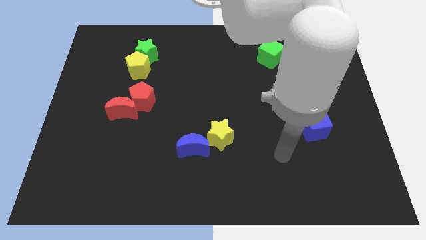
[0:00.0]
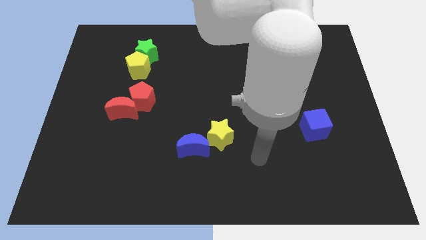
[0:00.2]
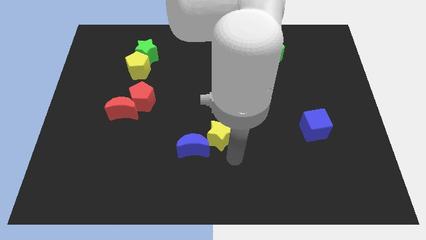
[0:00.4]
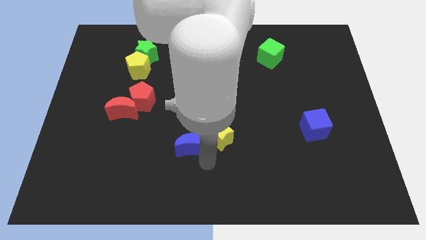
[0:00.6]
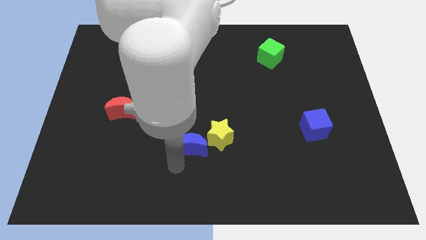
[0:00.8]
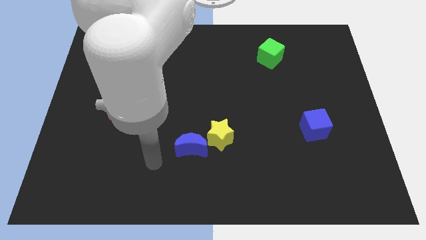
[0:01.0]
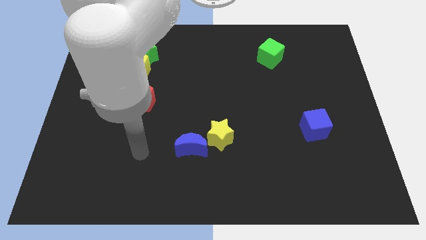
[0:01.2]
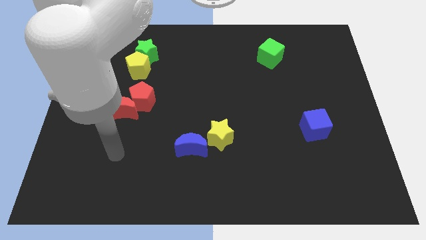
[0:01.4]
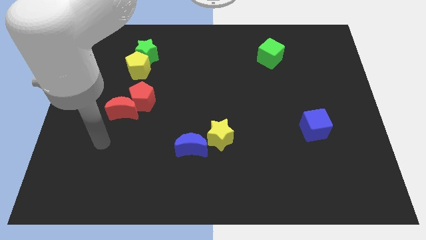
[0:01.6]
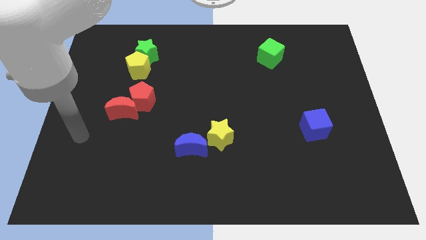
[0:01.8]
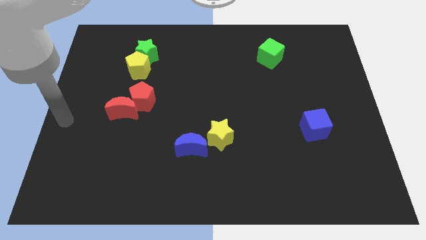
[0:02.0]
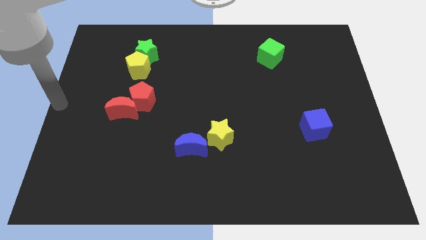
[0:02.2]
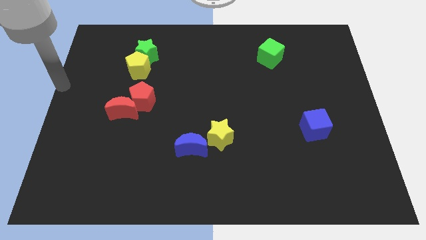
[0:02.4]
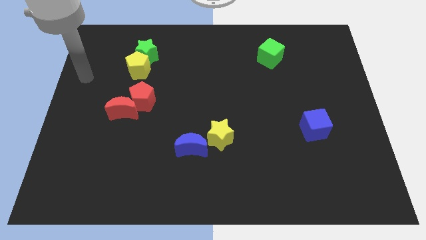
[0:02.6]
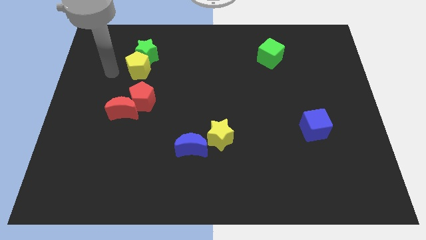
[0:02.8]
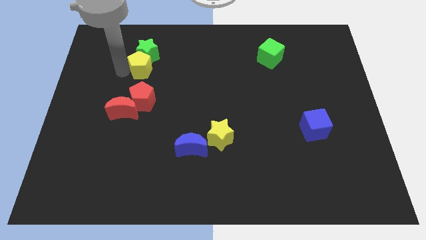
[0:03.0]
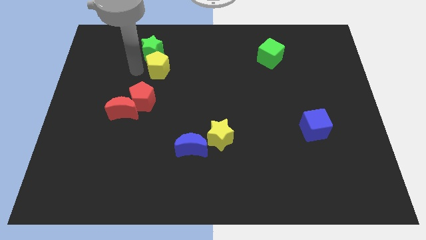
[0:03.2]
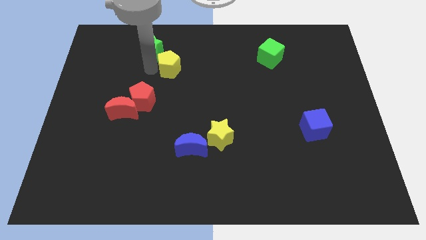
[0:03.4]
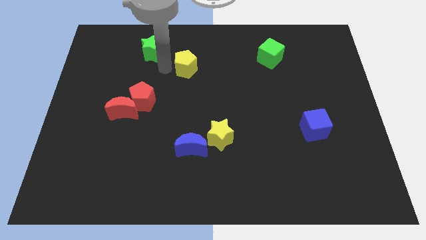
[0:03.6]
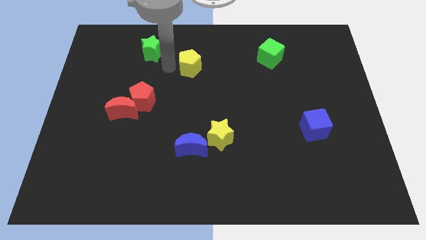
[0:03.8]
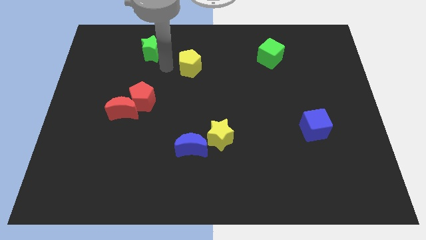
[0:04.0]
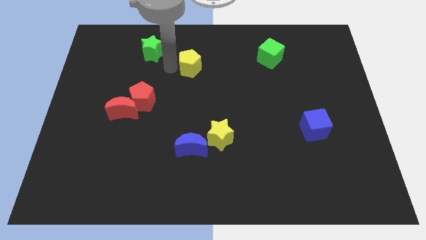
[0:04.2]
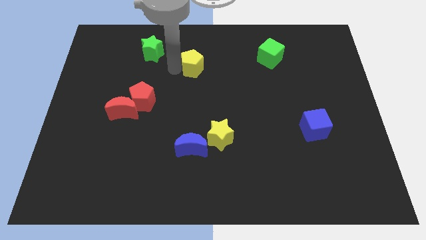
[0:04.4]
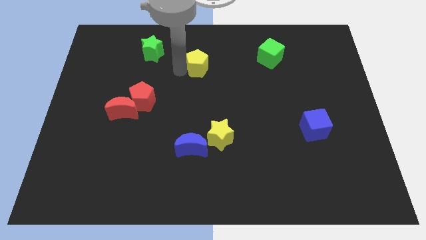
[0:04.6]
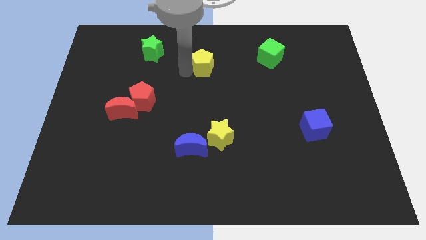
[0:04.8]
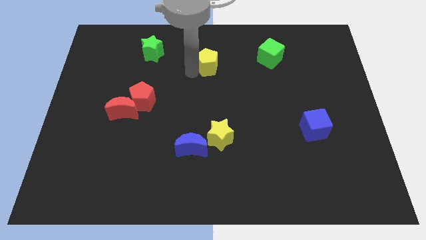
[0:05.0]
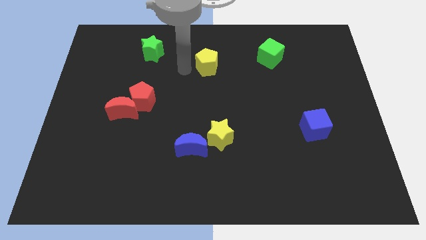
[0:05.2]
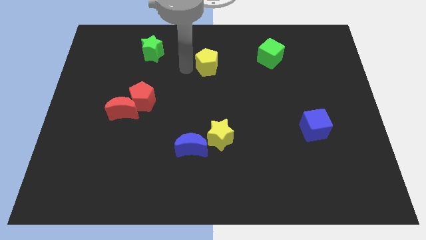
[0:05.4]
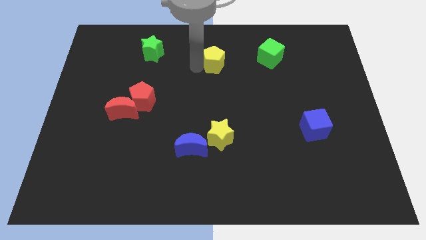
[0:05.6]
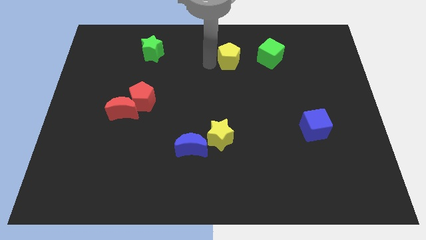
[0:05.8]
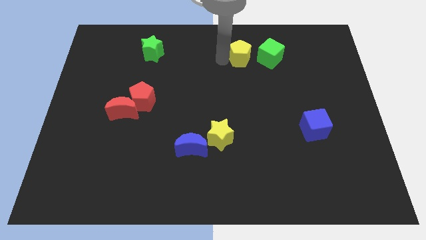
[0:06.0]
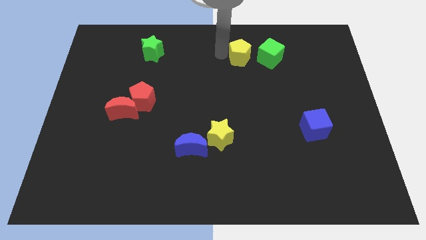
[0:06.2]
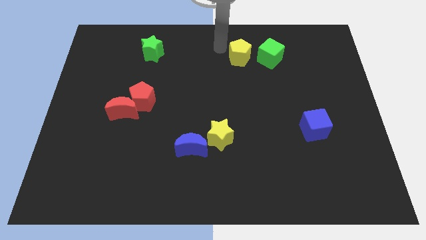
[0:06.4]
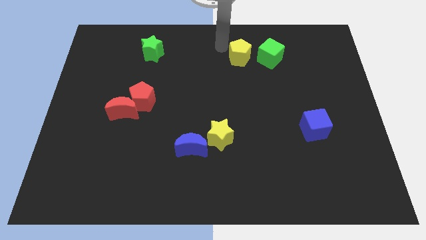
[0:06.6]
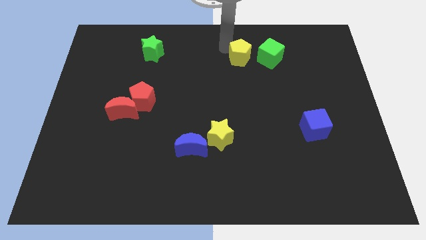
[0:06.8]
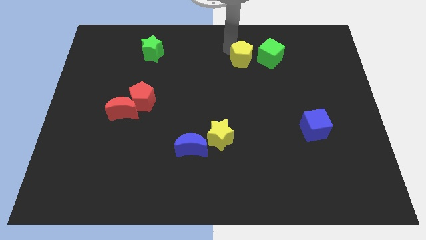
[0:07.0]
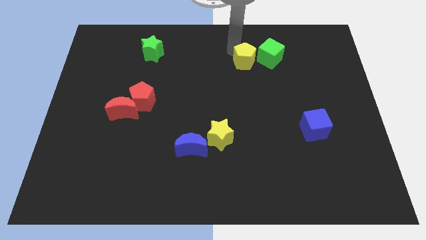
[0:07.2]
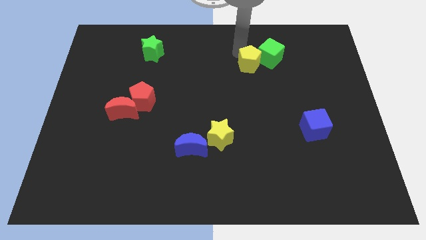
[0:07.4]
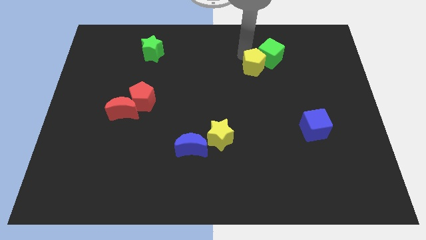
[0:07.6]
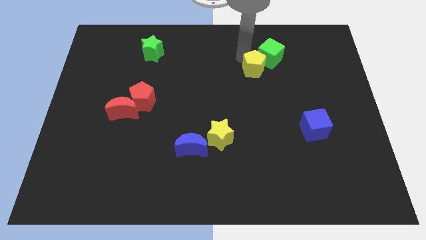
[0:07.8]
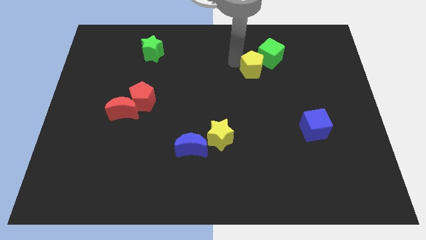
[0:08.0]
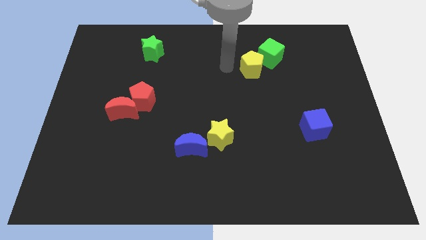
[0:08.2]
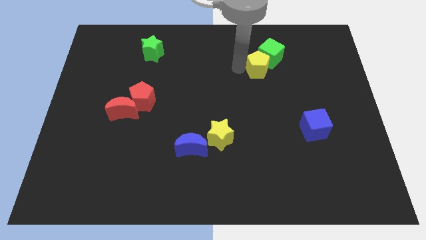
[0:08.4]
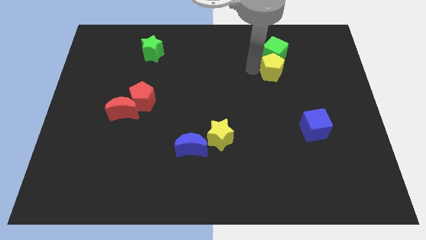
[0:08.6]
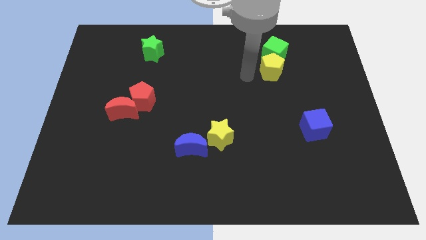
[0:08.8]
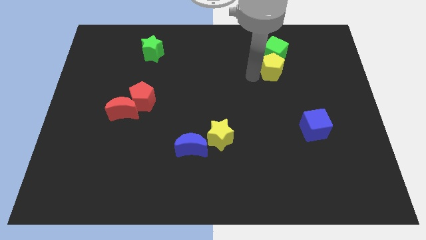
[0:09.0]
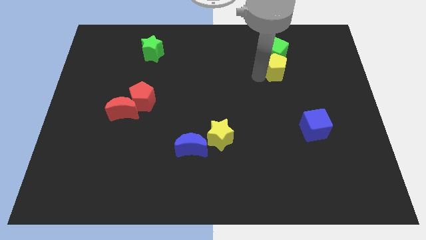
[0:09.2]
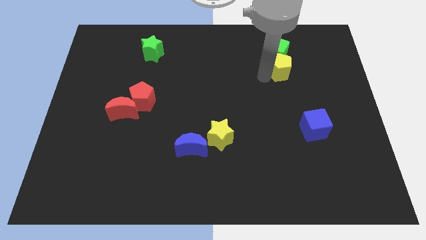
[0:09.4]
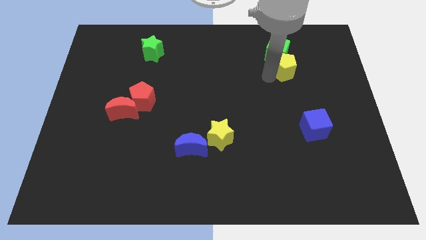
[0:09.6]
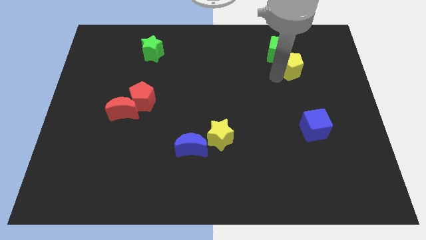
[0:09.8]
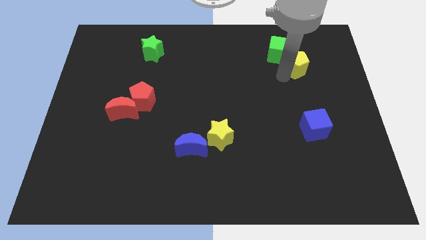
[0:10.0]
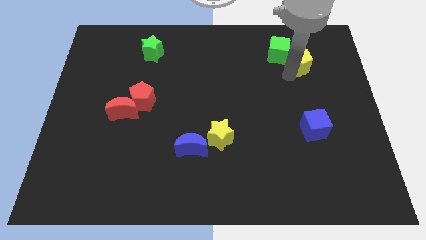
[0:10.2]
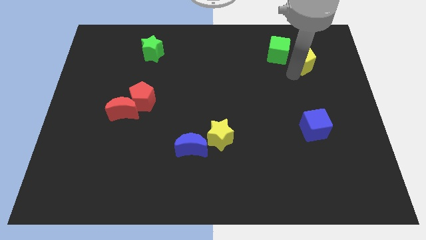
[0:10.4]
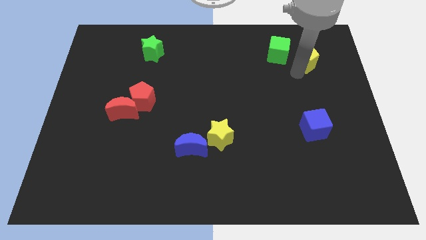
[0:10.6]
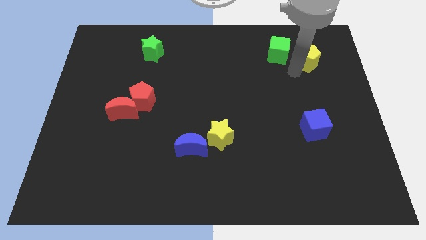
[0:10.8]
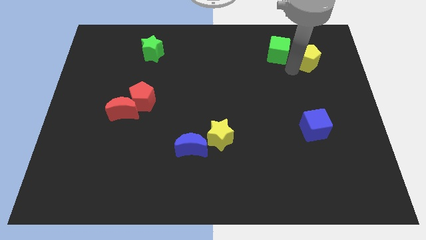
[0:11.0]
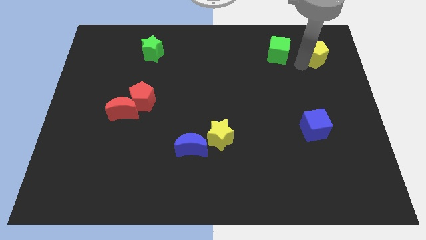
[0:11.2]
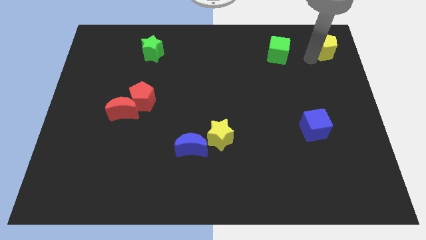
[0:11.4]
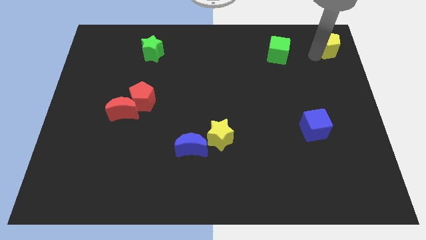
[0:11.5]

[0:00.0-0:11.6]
move the yellow pentagon to the top right

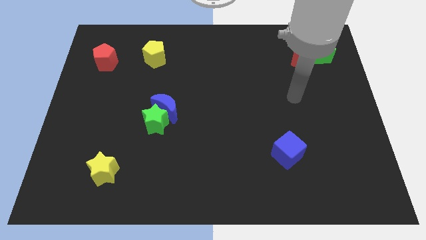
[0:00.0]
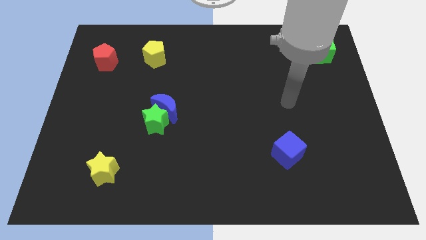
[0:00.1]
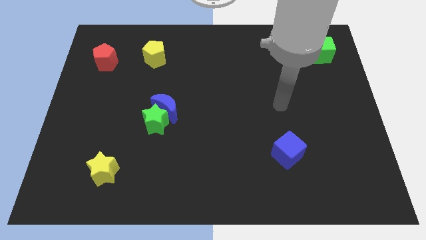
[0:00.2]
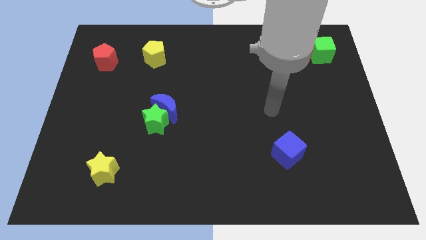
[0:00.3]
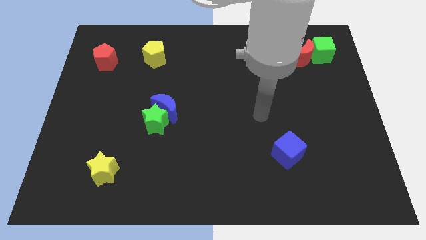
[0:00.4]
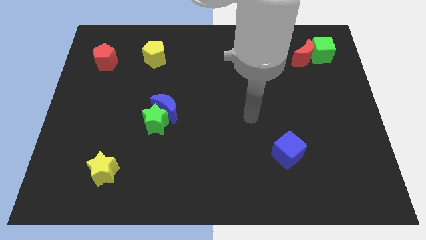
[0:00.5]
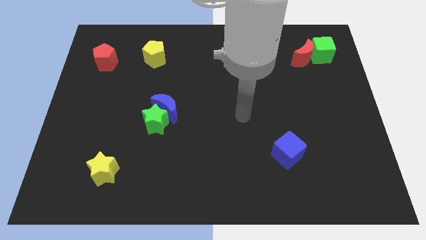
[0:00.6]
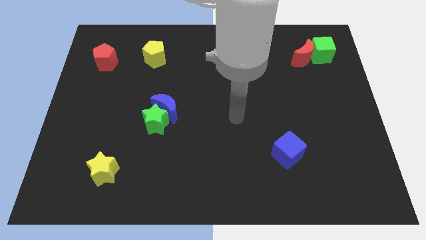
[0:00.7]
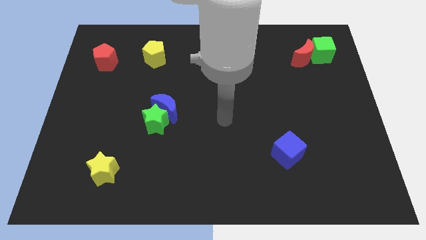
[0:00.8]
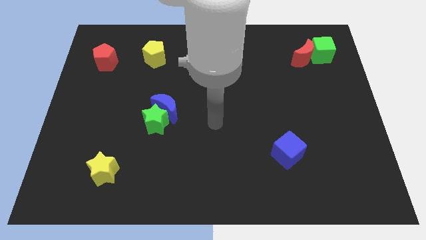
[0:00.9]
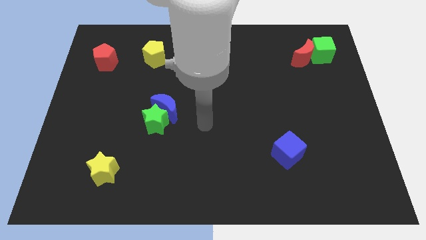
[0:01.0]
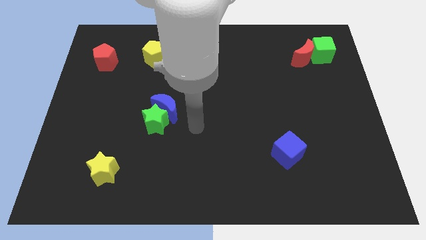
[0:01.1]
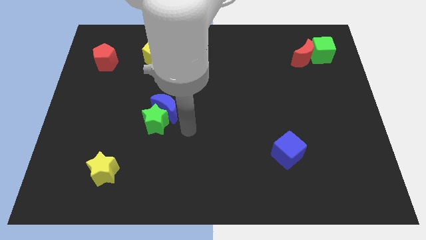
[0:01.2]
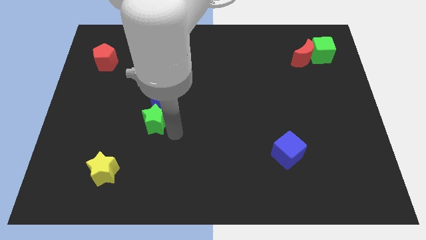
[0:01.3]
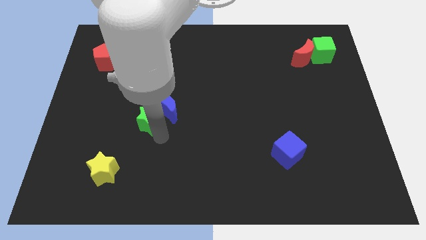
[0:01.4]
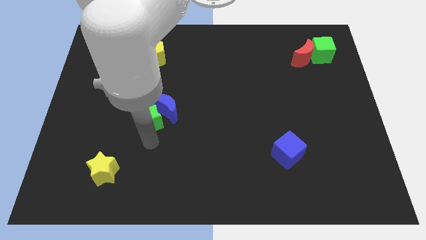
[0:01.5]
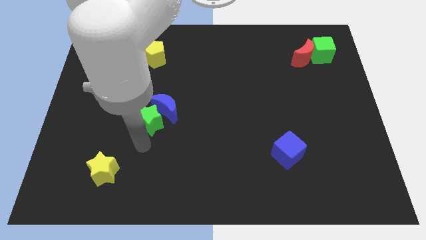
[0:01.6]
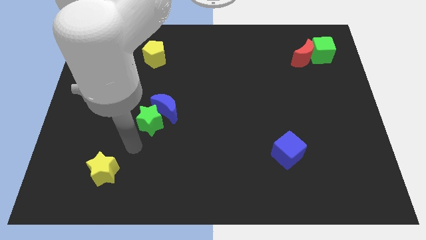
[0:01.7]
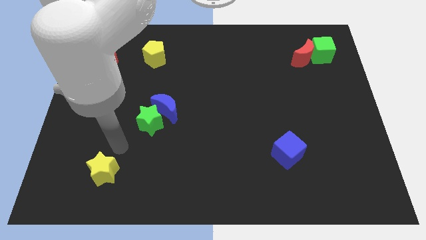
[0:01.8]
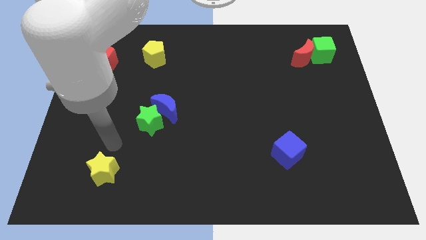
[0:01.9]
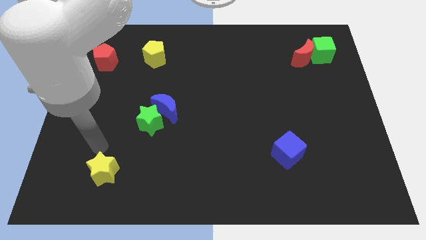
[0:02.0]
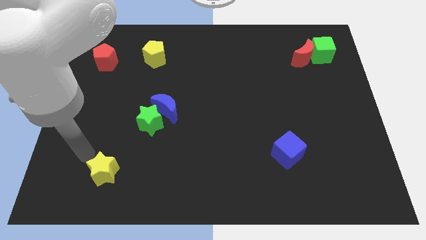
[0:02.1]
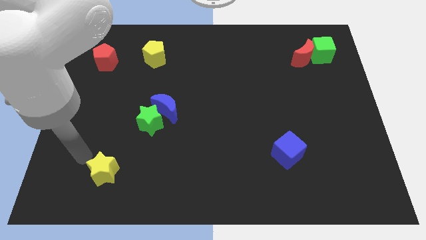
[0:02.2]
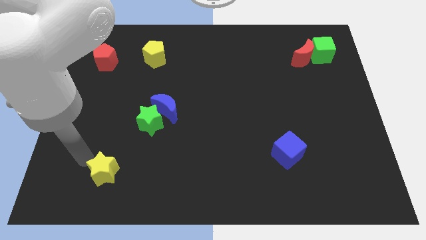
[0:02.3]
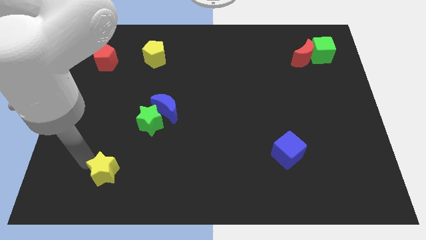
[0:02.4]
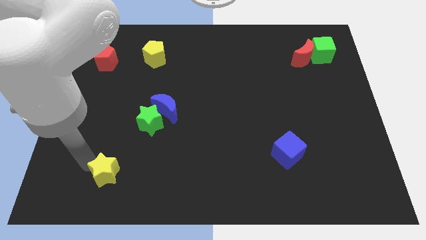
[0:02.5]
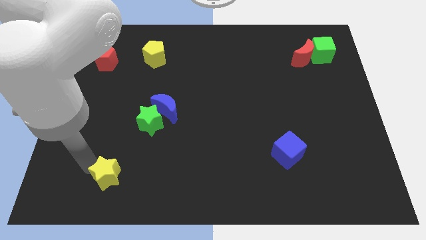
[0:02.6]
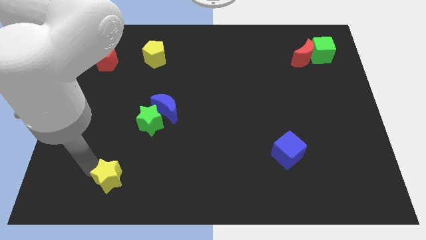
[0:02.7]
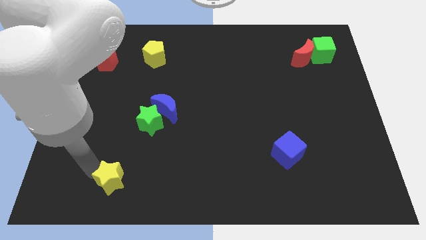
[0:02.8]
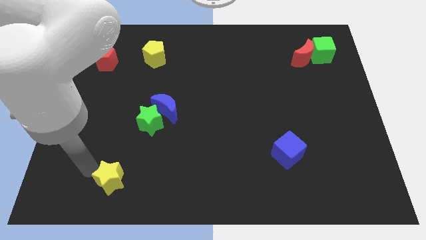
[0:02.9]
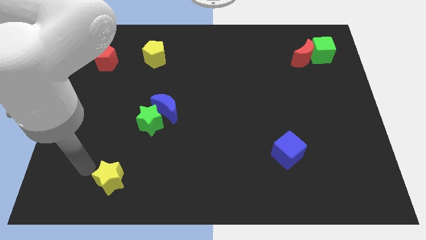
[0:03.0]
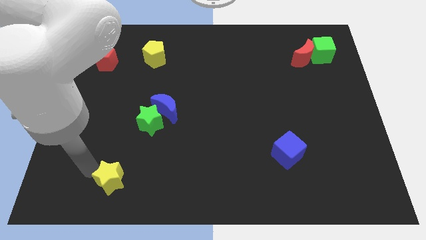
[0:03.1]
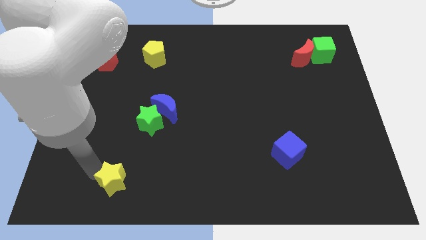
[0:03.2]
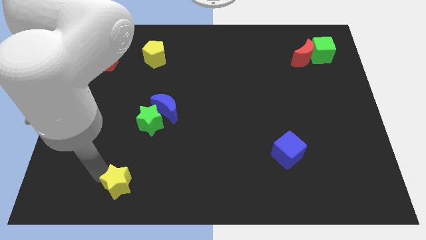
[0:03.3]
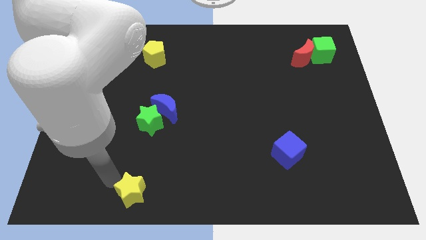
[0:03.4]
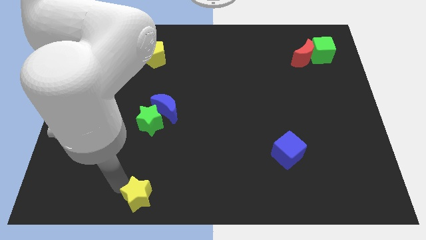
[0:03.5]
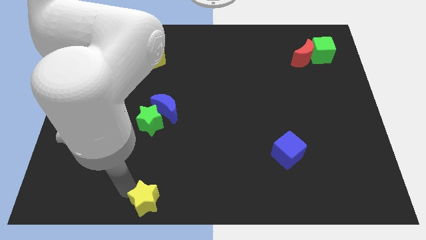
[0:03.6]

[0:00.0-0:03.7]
slide the yellow star to the bottom
